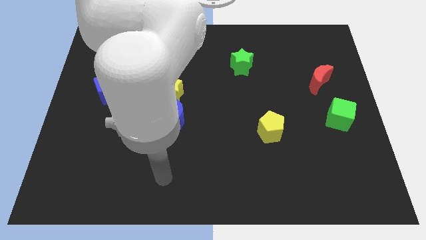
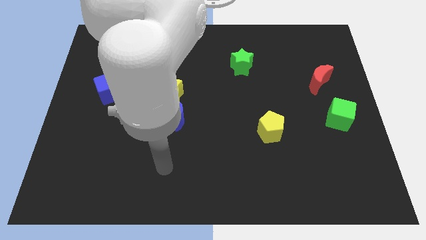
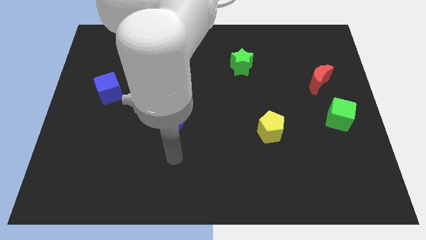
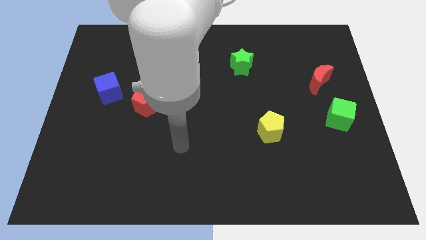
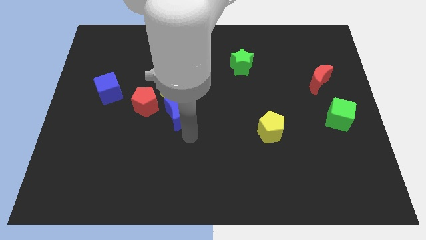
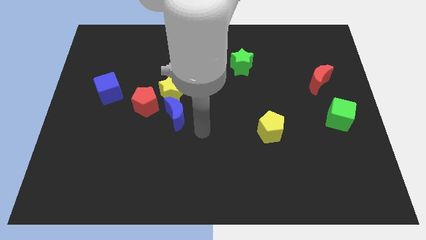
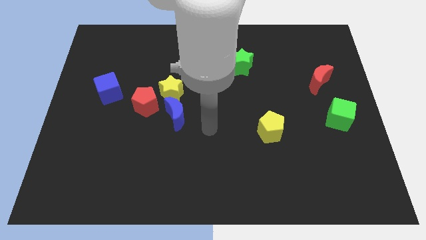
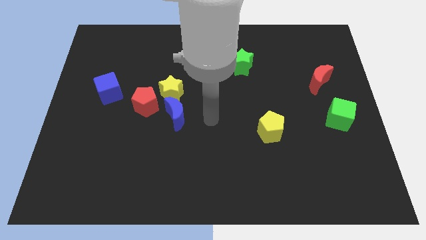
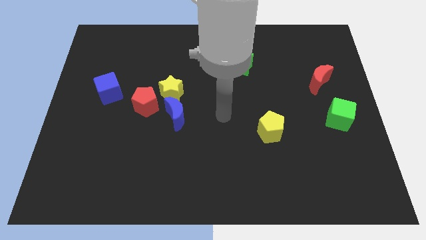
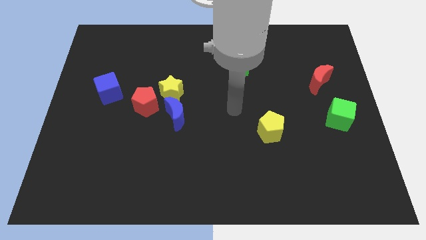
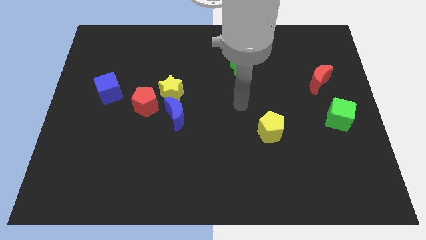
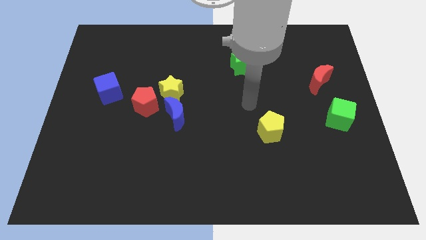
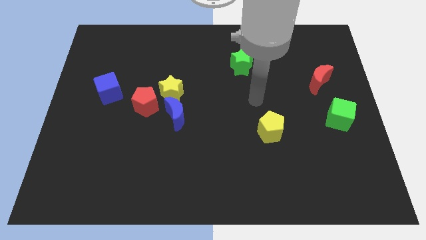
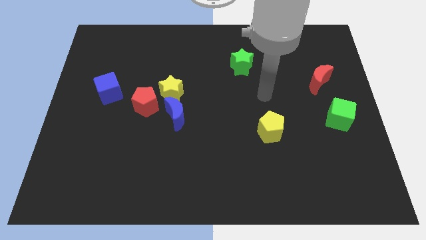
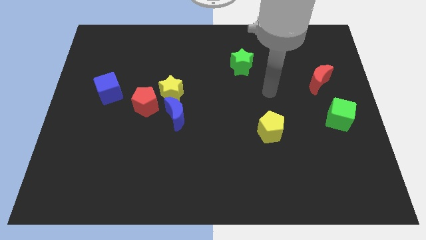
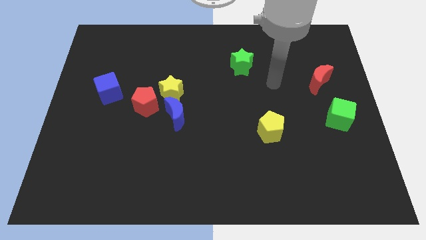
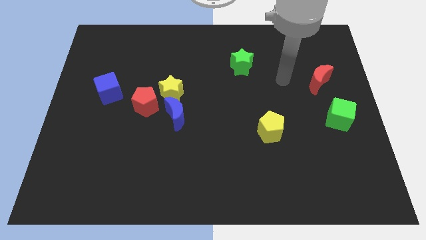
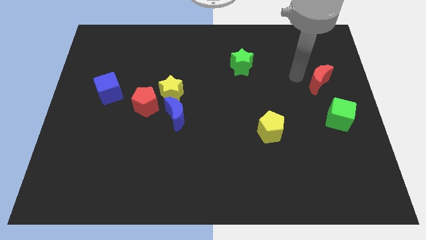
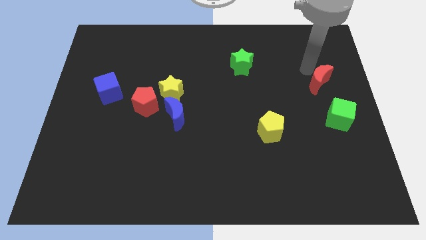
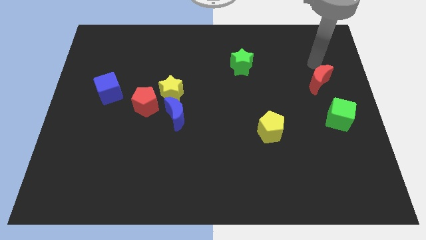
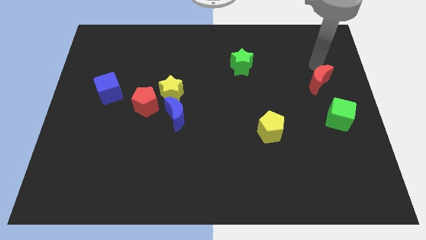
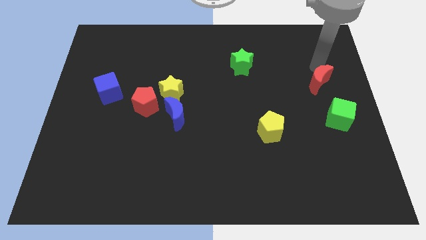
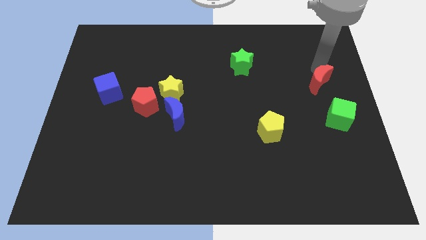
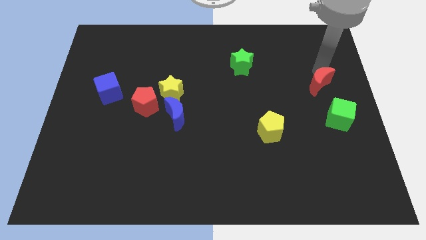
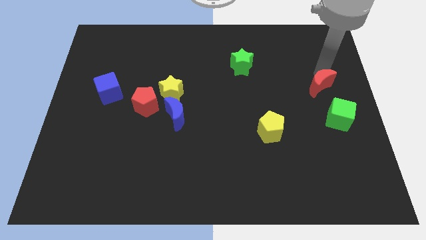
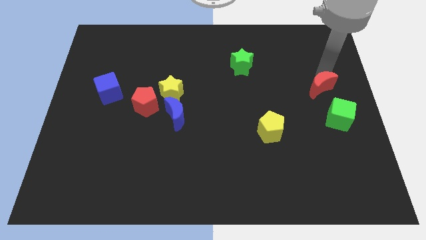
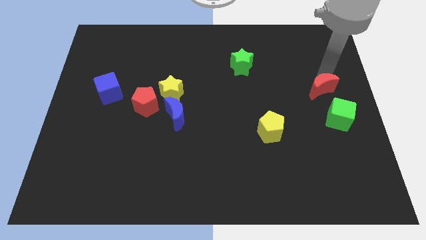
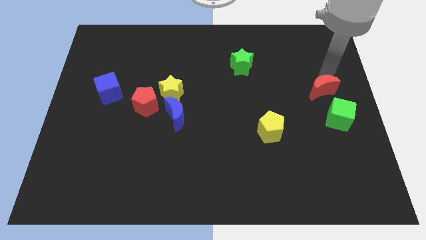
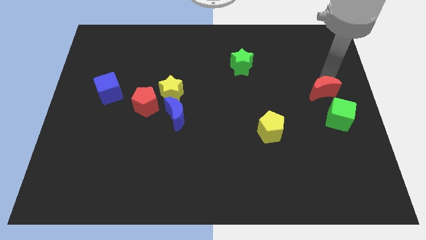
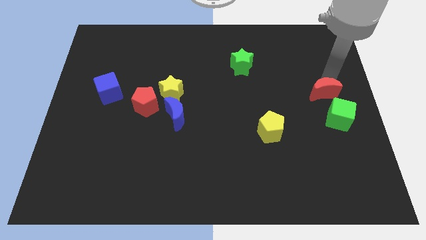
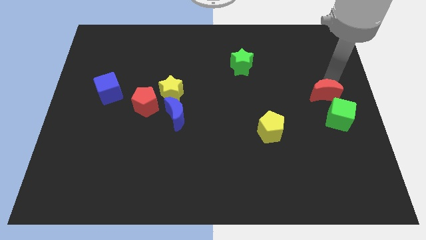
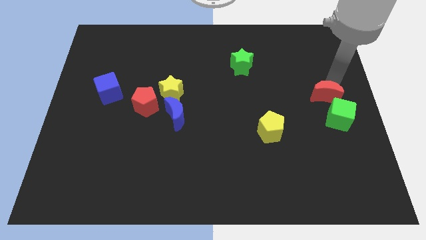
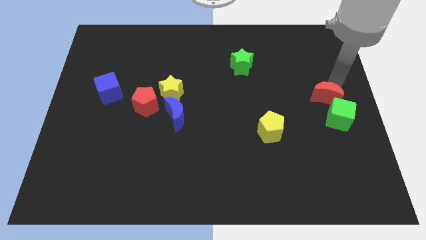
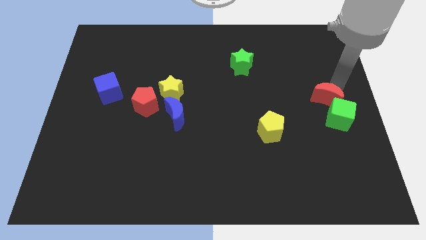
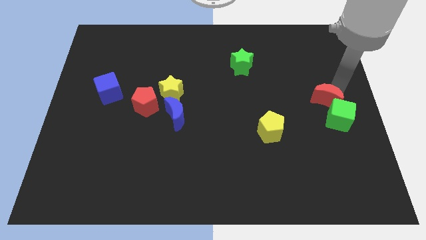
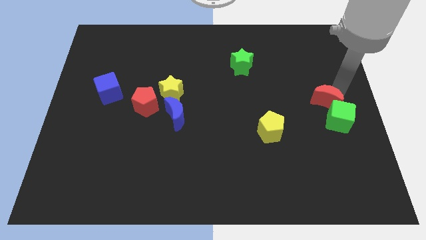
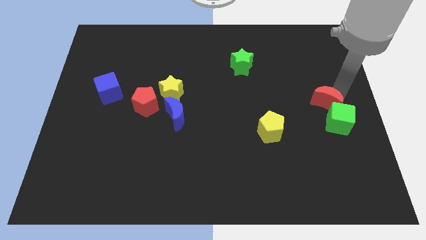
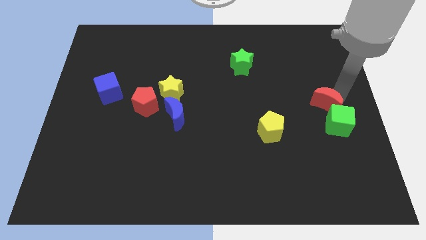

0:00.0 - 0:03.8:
move the red moon a bit downwards

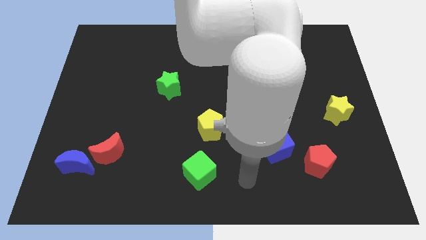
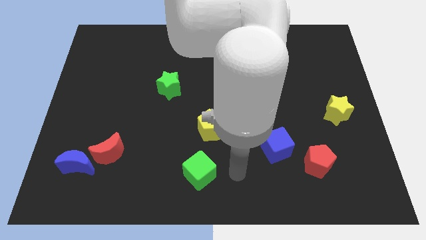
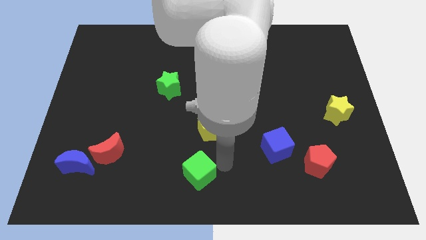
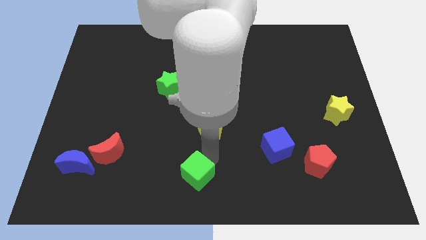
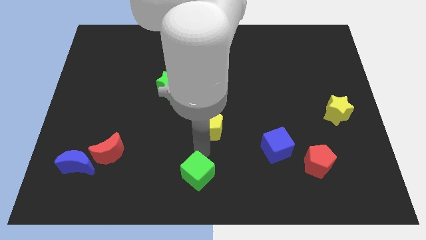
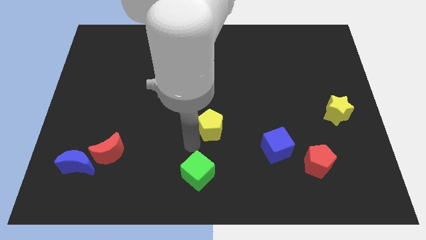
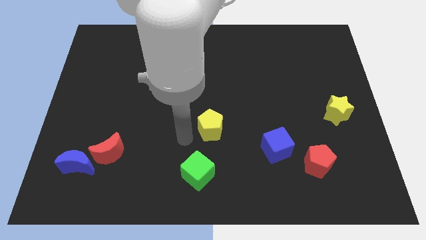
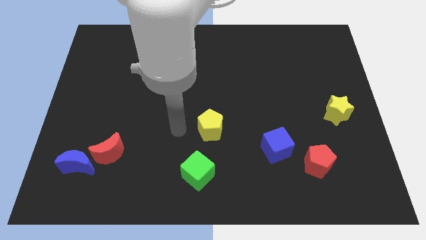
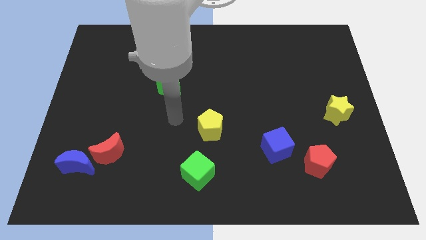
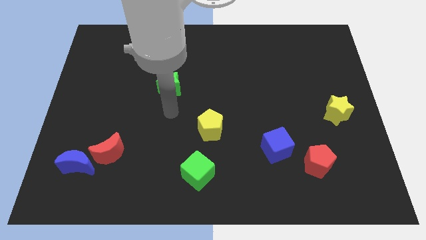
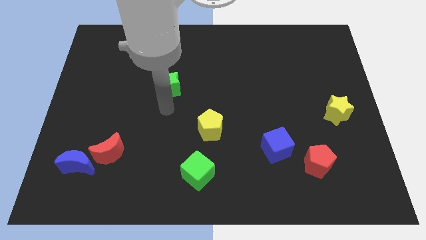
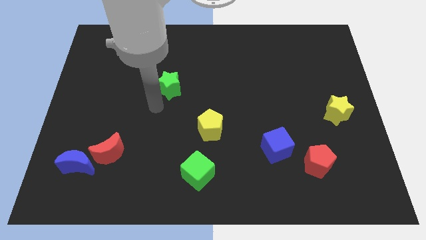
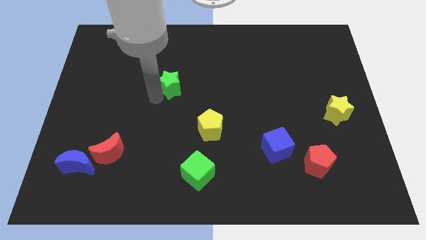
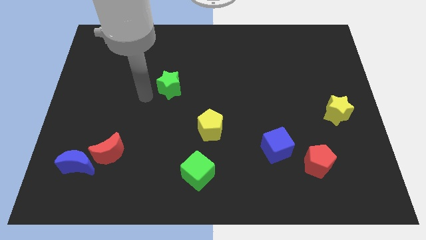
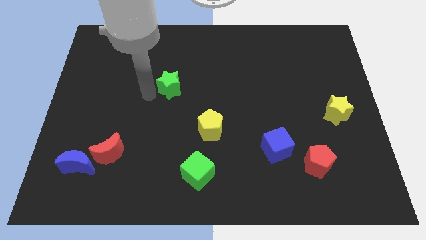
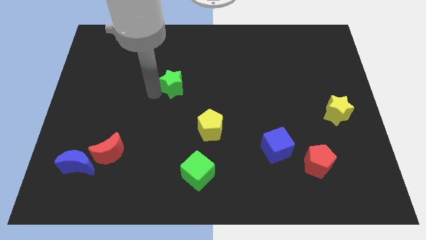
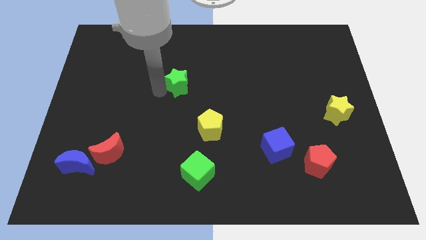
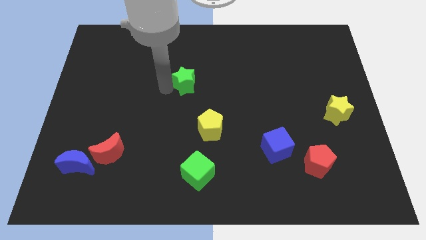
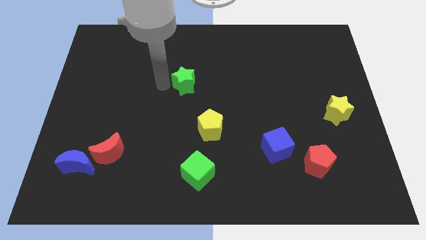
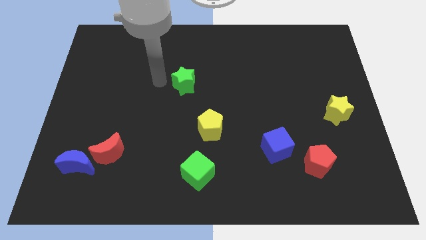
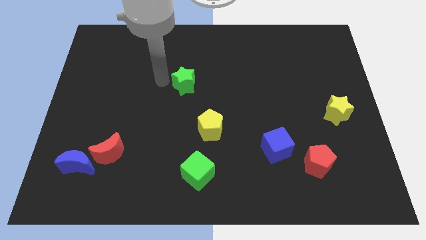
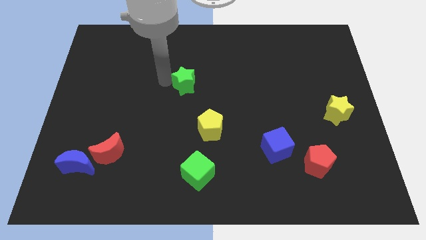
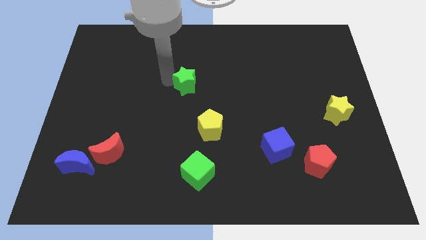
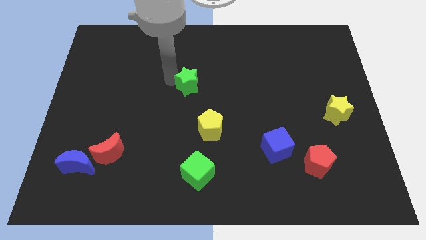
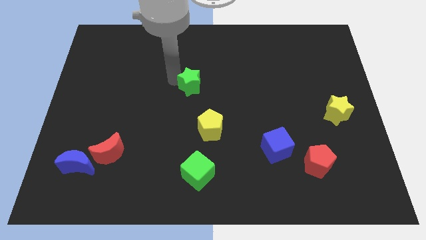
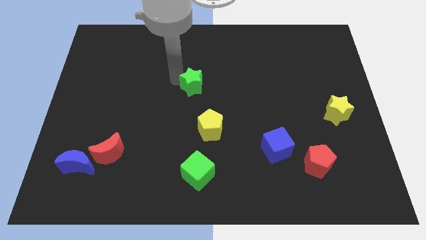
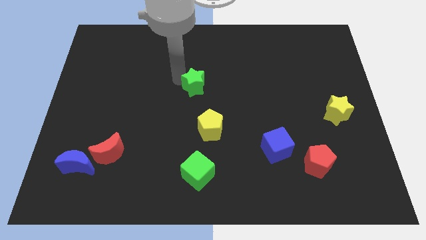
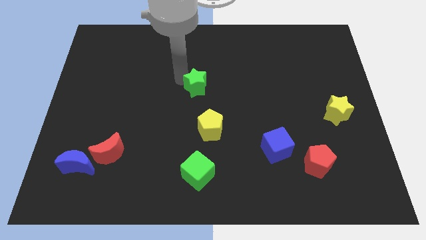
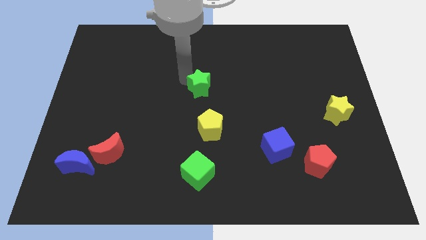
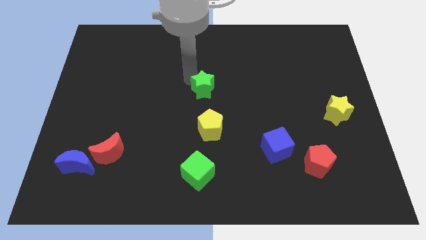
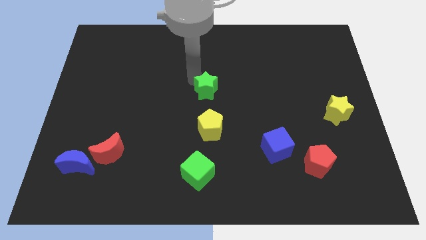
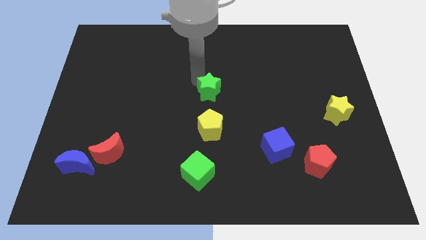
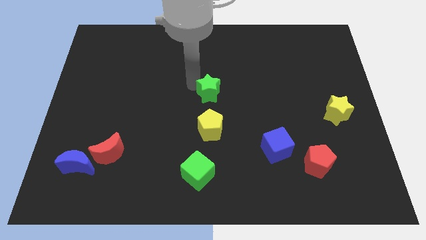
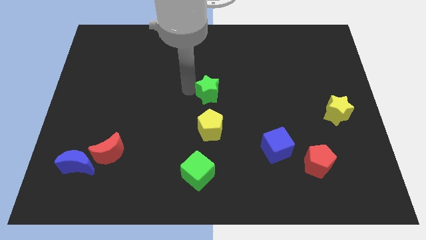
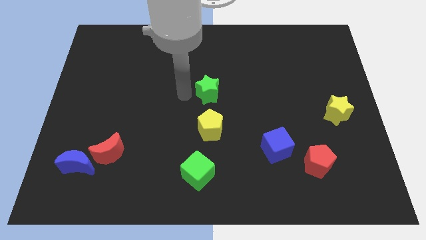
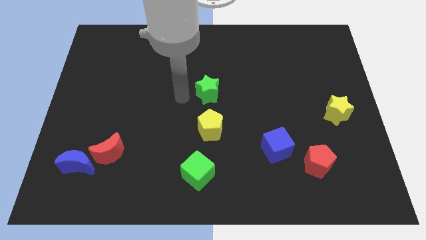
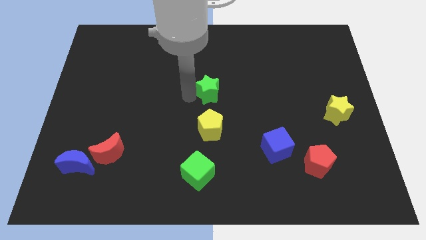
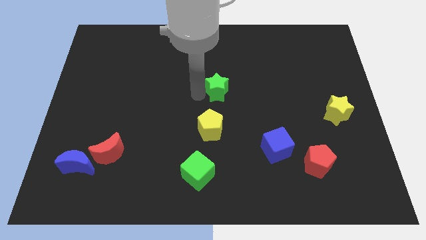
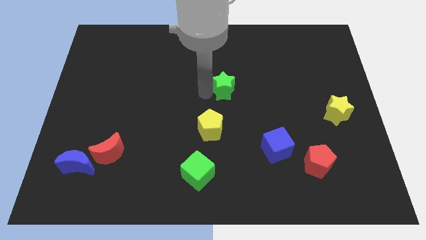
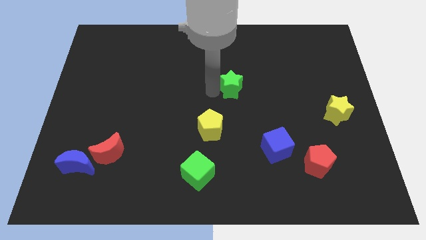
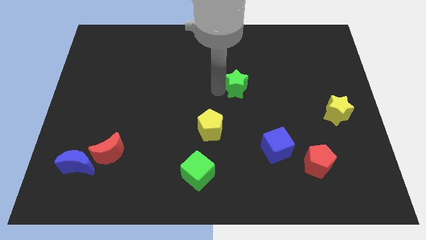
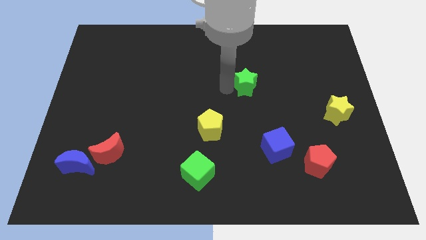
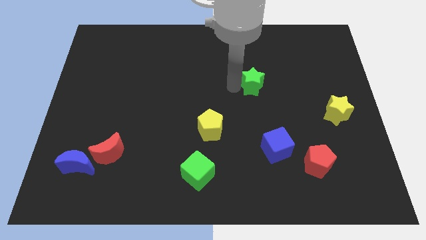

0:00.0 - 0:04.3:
move the green star to the right

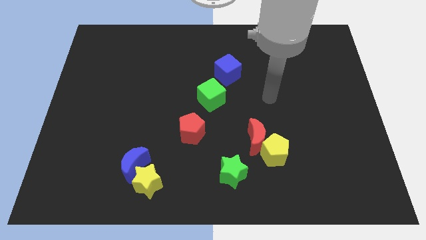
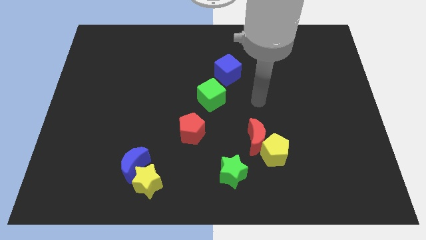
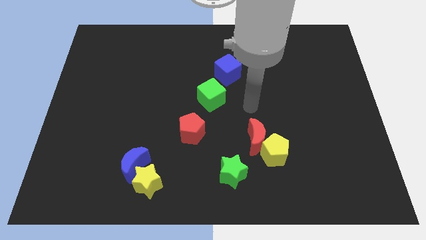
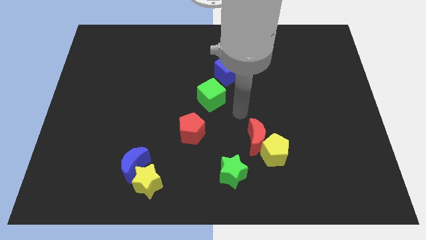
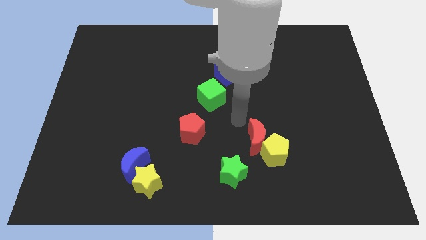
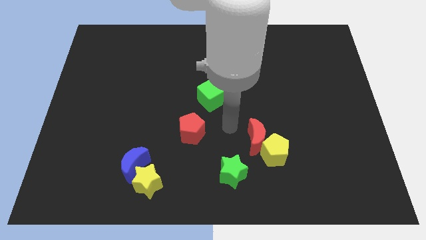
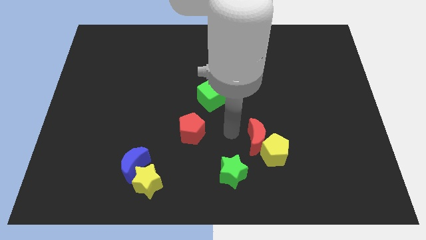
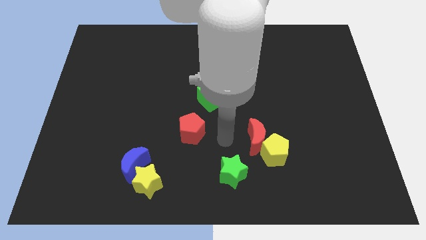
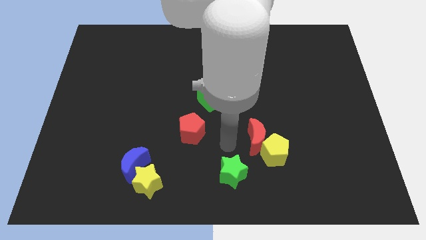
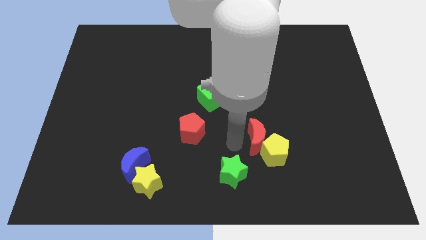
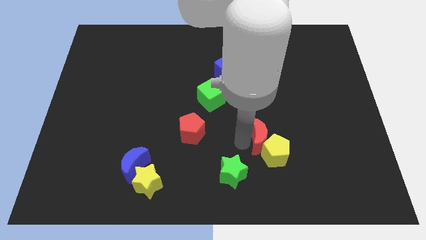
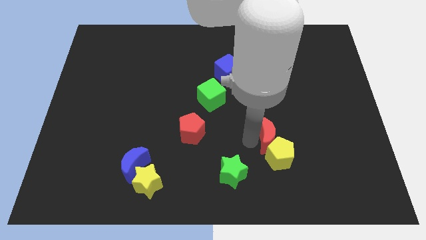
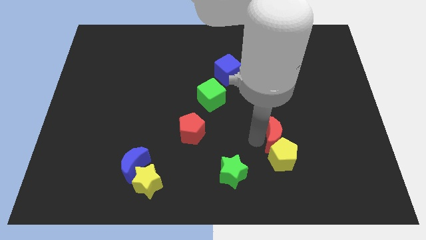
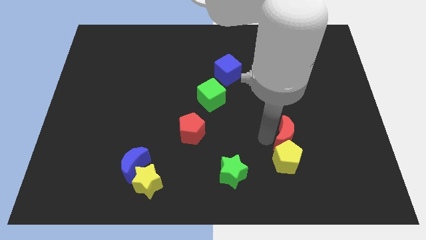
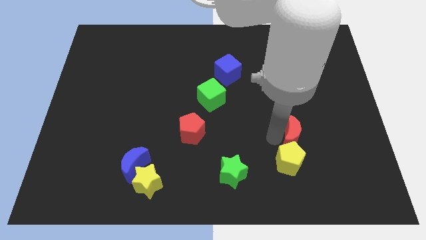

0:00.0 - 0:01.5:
slightly slide the red moon to the right
